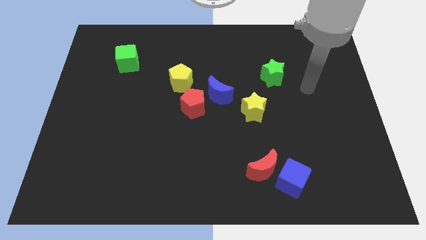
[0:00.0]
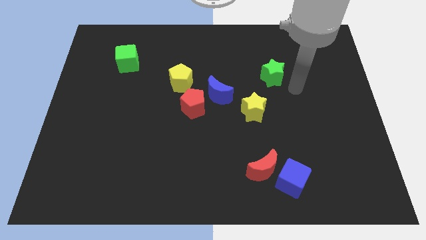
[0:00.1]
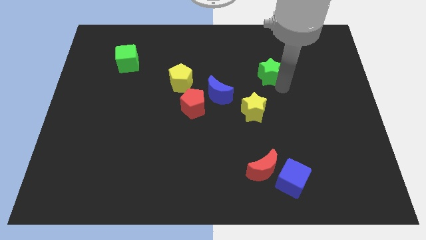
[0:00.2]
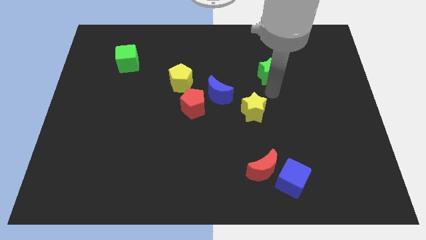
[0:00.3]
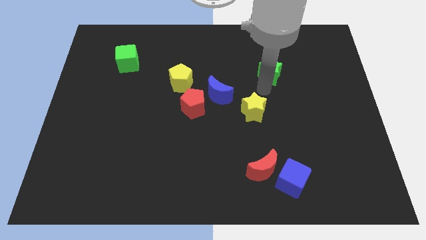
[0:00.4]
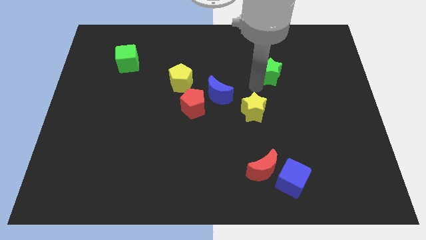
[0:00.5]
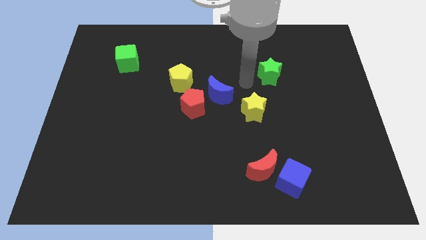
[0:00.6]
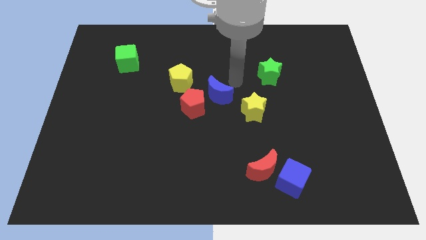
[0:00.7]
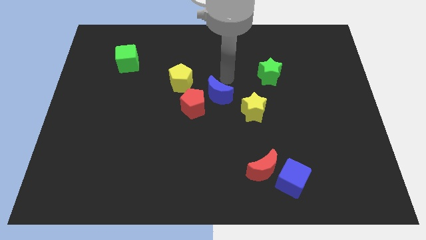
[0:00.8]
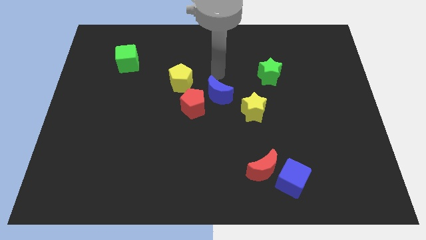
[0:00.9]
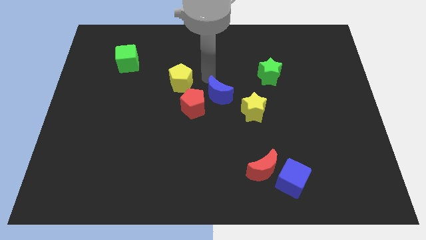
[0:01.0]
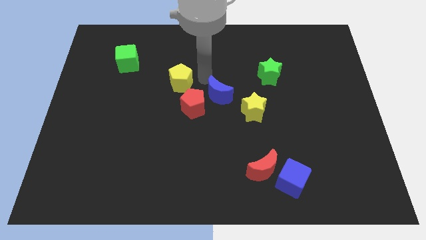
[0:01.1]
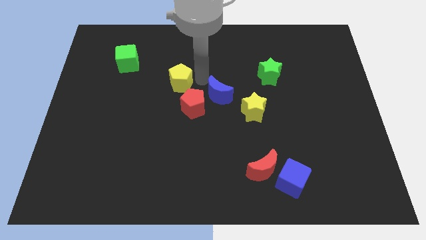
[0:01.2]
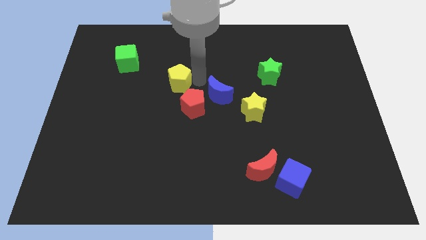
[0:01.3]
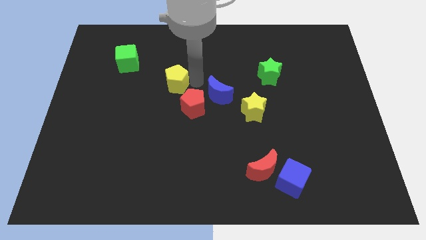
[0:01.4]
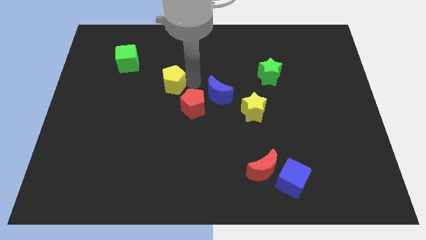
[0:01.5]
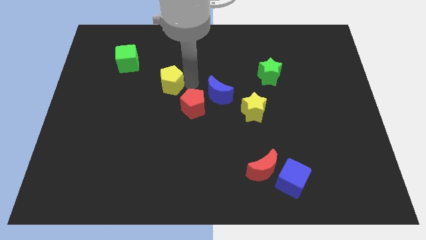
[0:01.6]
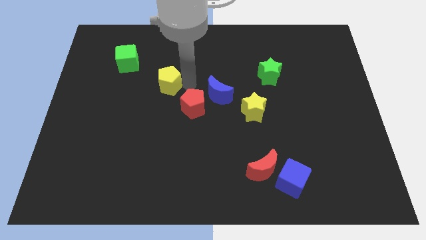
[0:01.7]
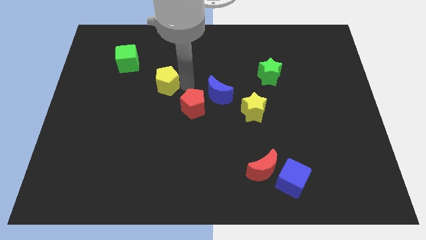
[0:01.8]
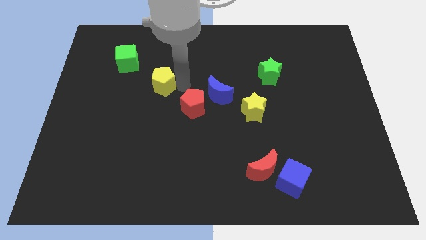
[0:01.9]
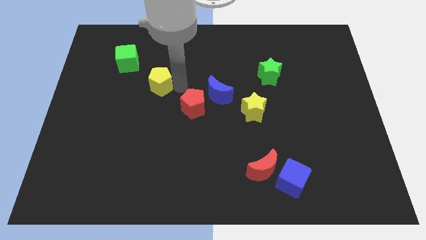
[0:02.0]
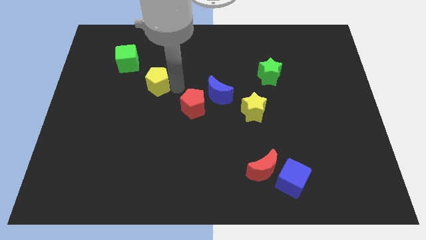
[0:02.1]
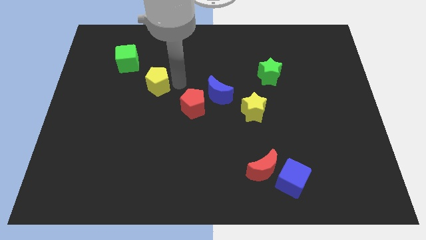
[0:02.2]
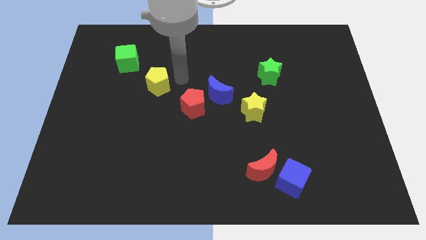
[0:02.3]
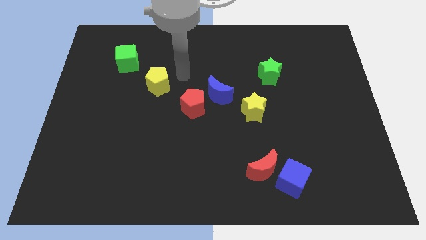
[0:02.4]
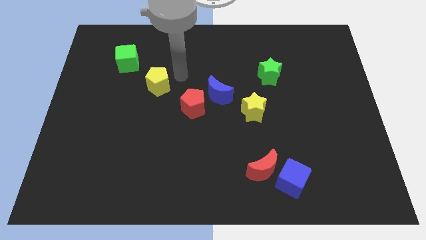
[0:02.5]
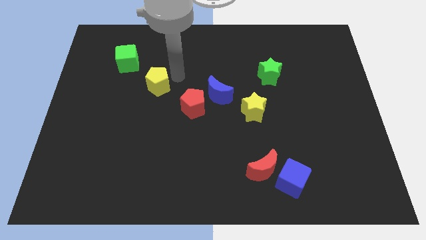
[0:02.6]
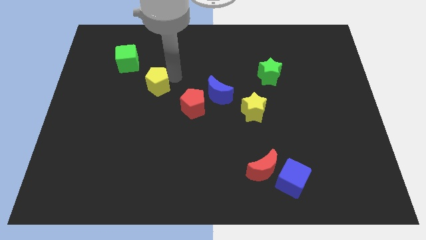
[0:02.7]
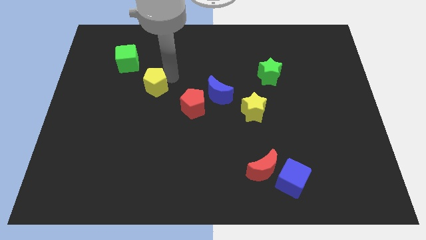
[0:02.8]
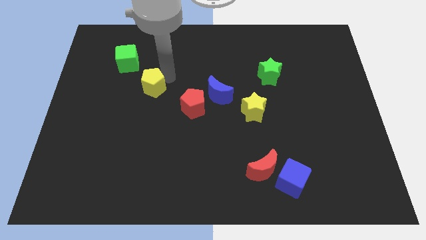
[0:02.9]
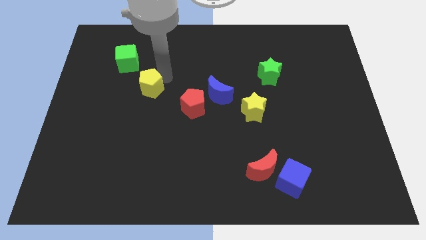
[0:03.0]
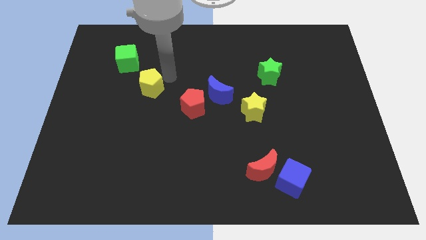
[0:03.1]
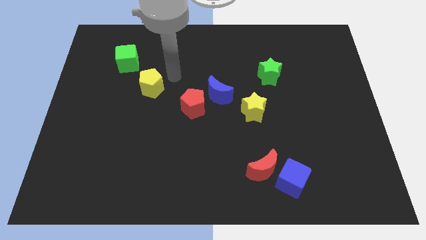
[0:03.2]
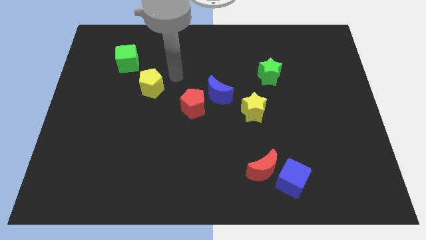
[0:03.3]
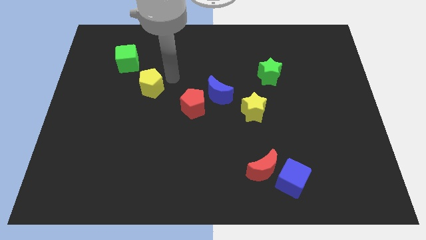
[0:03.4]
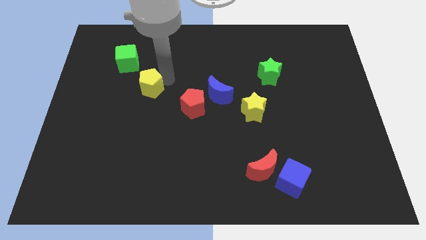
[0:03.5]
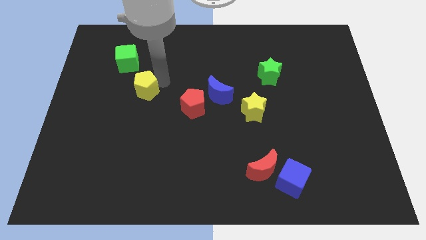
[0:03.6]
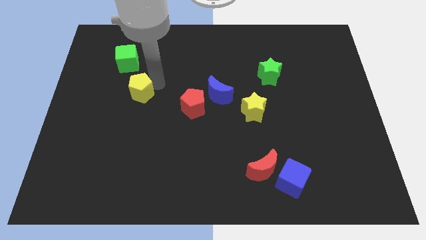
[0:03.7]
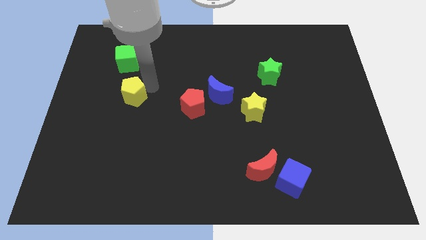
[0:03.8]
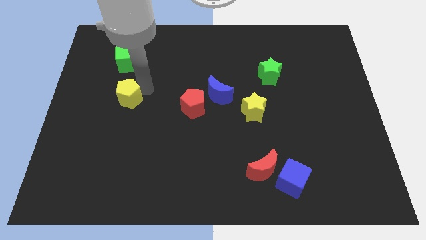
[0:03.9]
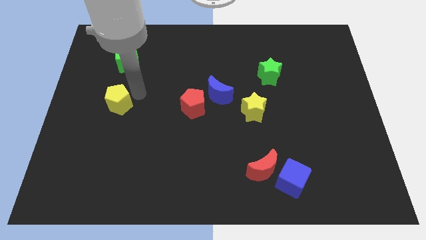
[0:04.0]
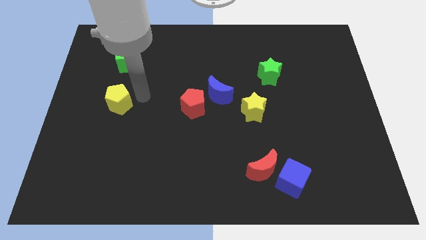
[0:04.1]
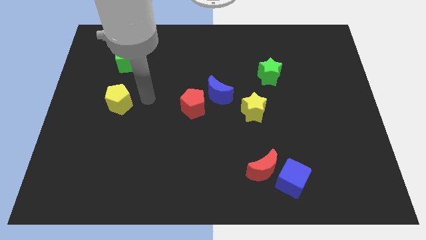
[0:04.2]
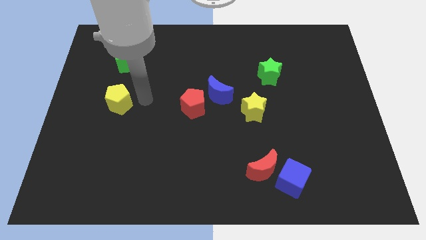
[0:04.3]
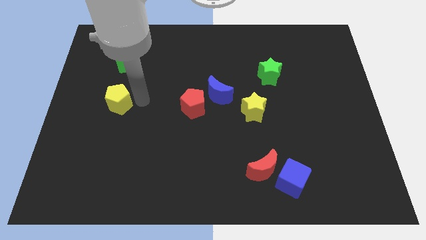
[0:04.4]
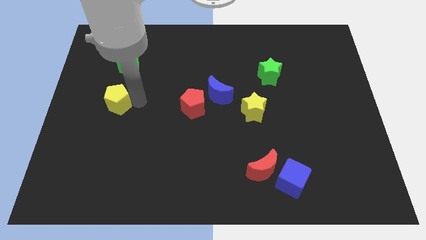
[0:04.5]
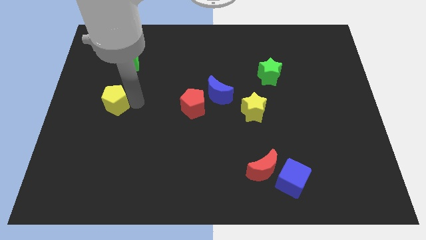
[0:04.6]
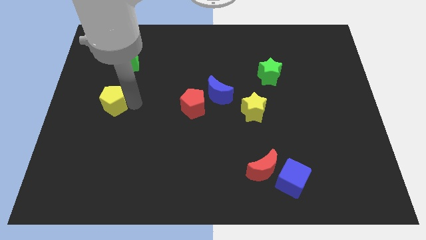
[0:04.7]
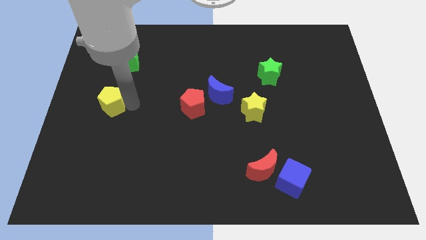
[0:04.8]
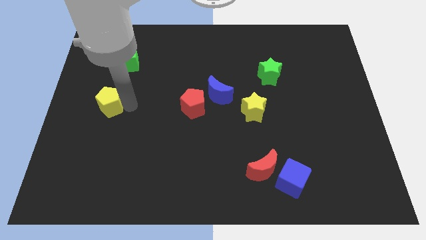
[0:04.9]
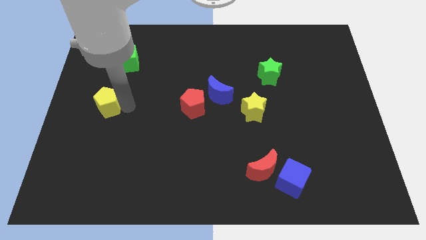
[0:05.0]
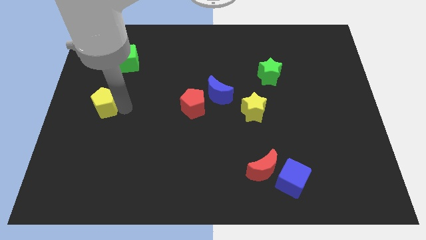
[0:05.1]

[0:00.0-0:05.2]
push the yellow pentagon to the left side of the board

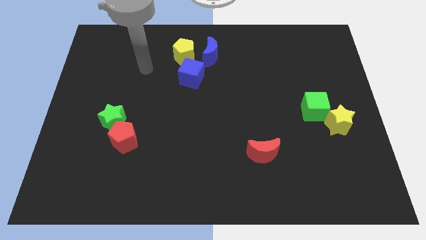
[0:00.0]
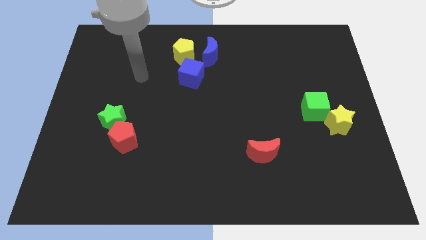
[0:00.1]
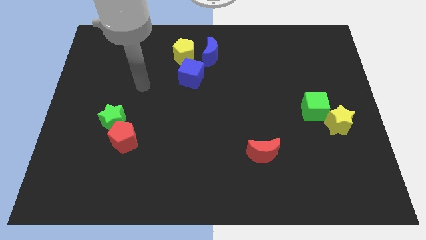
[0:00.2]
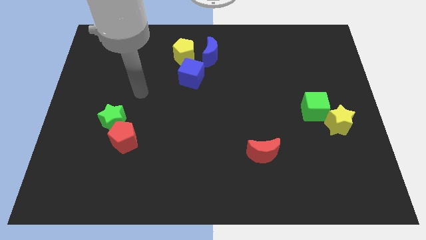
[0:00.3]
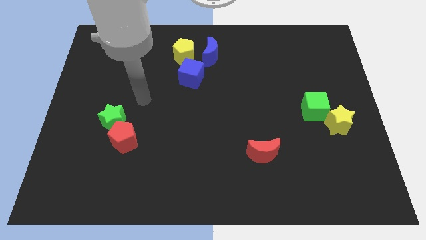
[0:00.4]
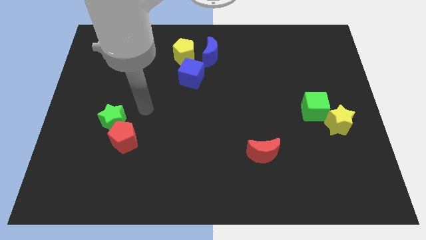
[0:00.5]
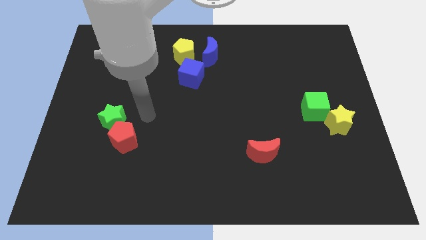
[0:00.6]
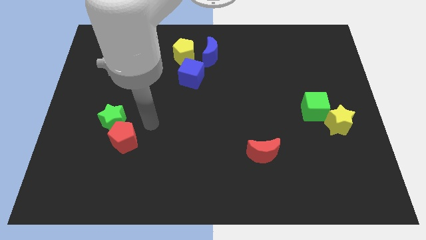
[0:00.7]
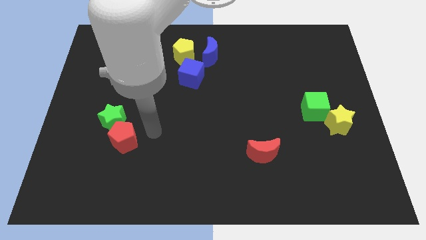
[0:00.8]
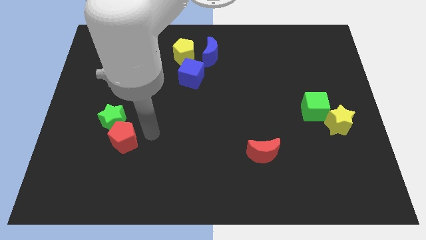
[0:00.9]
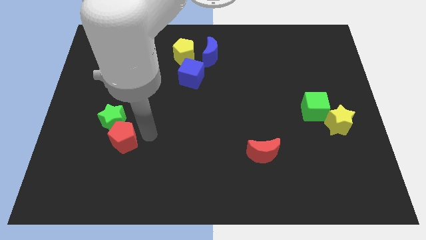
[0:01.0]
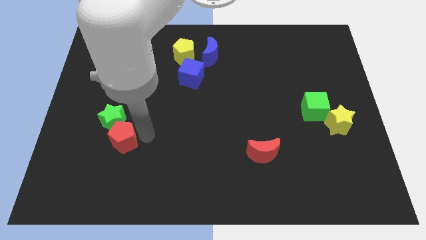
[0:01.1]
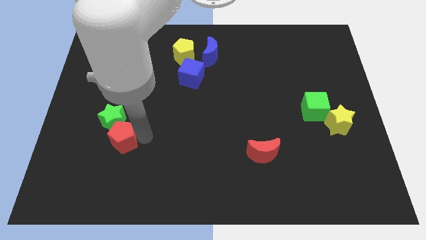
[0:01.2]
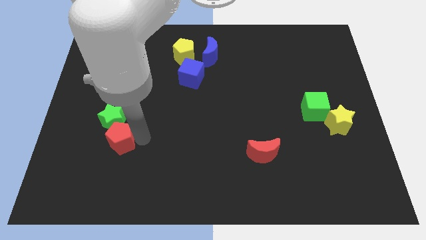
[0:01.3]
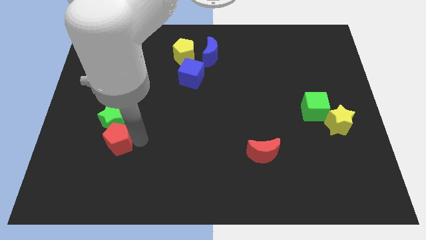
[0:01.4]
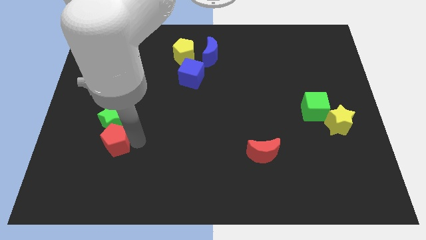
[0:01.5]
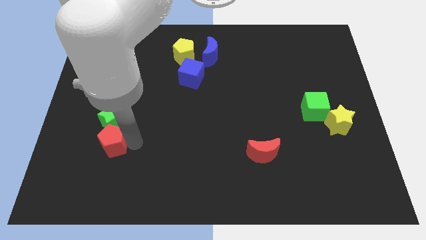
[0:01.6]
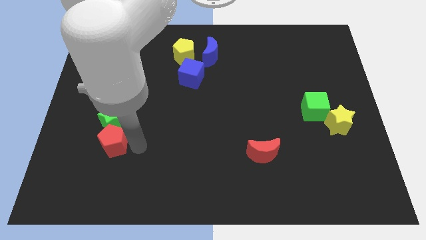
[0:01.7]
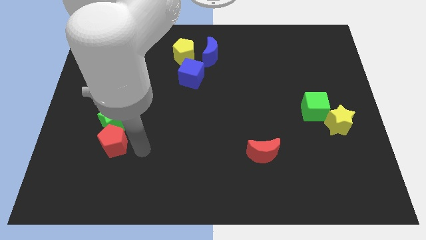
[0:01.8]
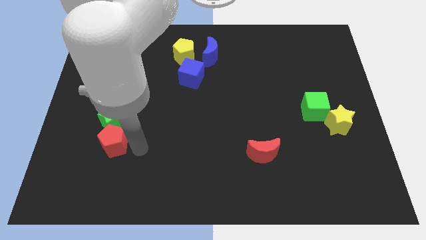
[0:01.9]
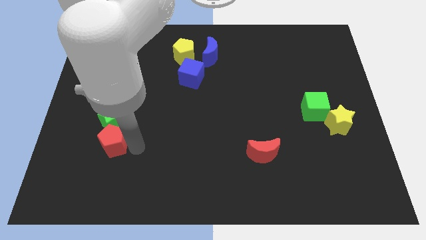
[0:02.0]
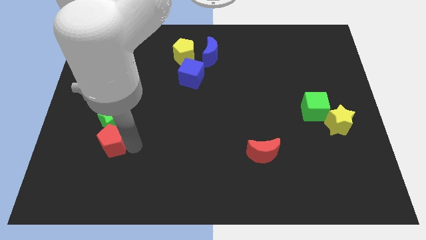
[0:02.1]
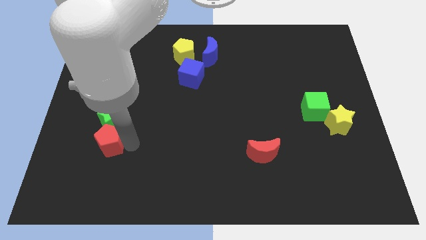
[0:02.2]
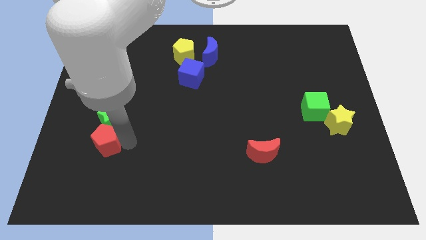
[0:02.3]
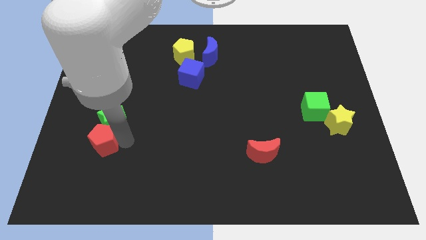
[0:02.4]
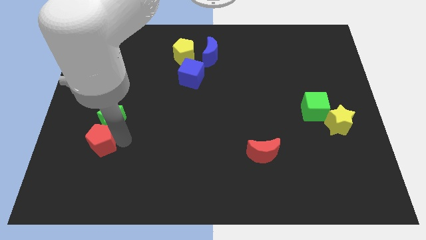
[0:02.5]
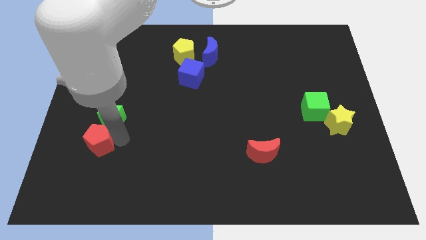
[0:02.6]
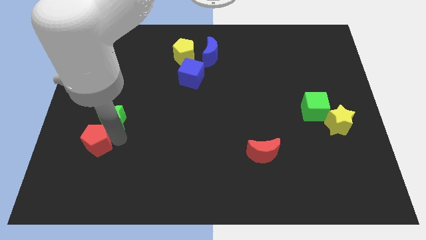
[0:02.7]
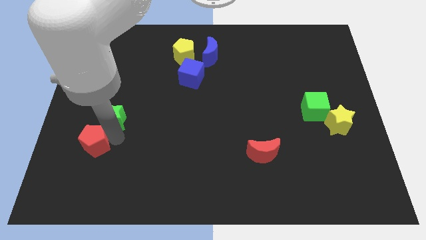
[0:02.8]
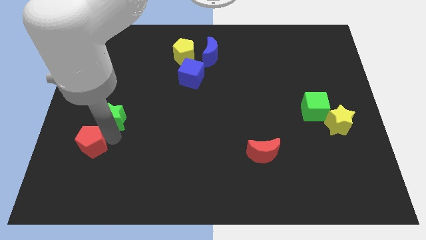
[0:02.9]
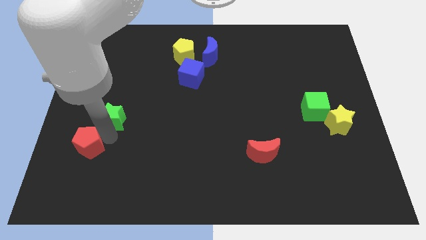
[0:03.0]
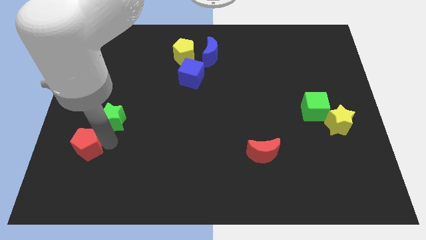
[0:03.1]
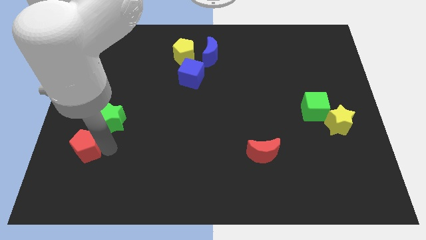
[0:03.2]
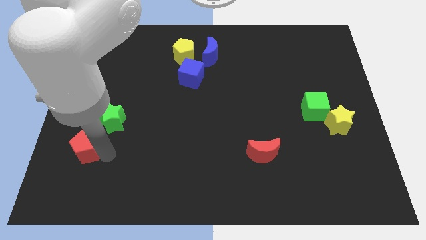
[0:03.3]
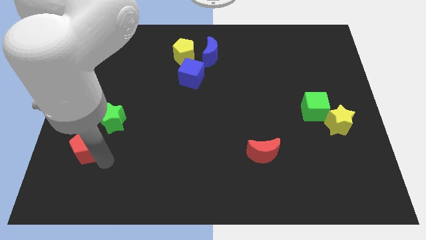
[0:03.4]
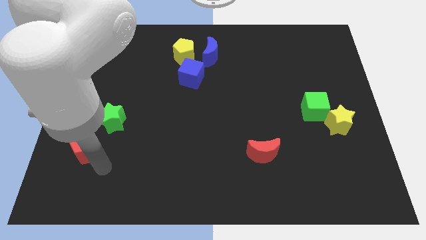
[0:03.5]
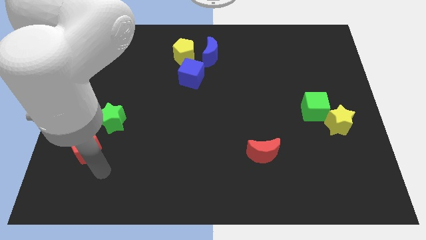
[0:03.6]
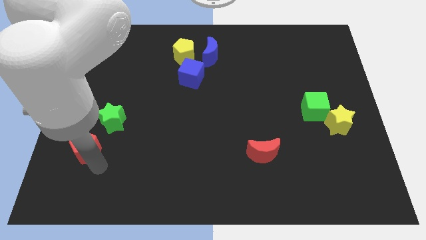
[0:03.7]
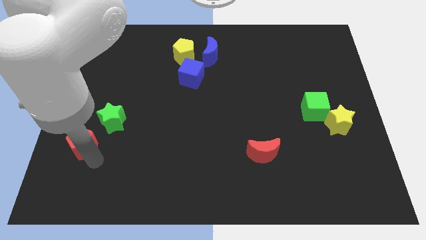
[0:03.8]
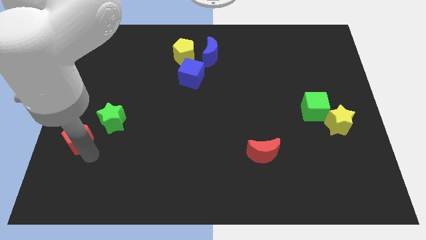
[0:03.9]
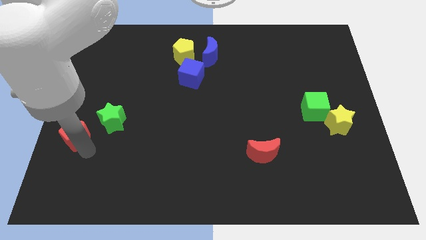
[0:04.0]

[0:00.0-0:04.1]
put the red pentagon to the left side of the board
